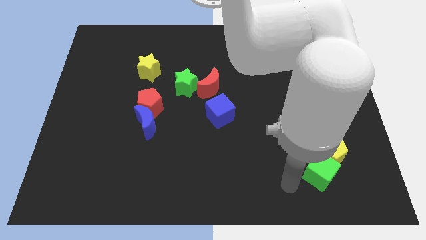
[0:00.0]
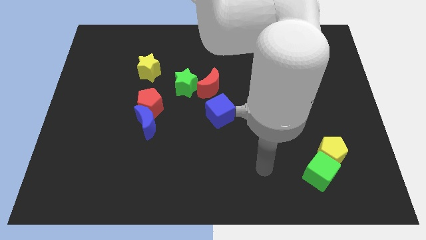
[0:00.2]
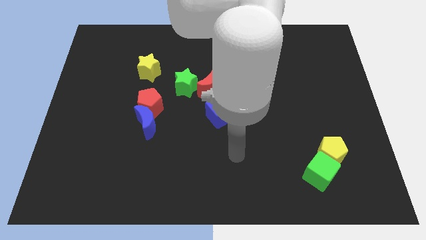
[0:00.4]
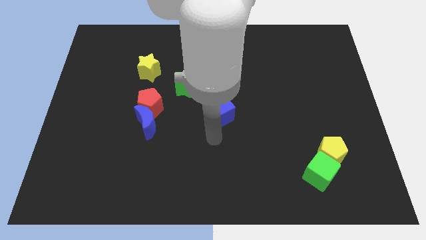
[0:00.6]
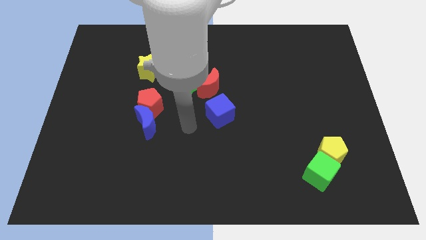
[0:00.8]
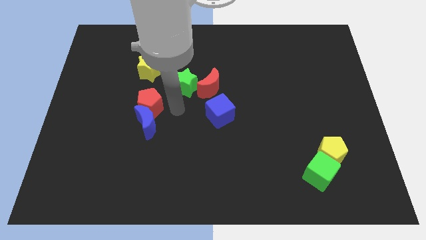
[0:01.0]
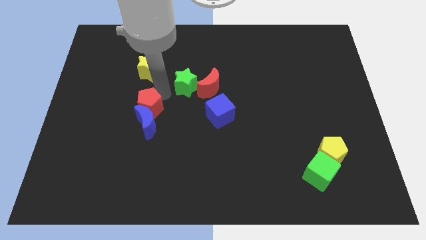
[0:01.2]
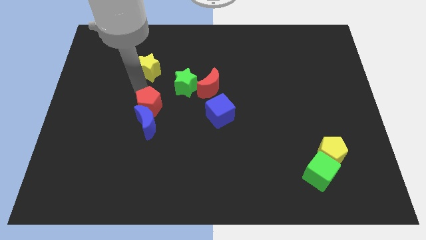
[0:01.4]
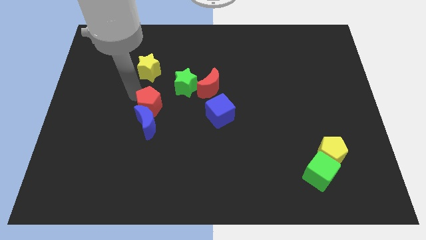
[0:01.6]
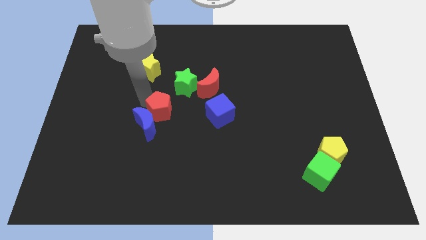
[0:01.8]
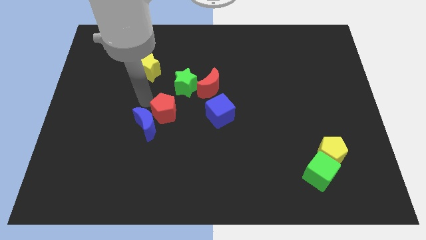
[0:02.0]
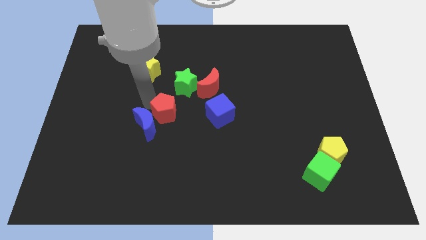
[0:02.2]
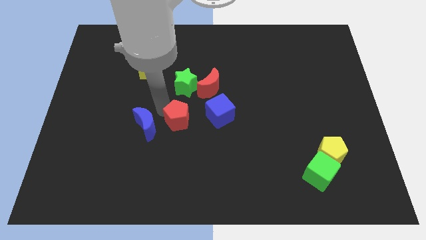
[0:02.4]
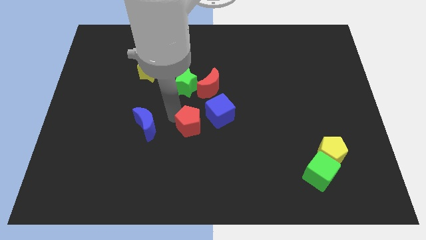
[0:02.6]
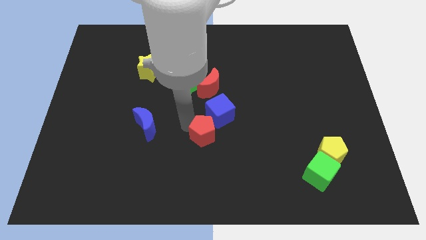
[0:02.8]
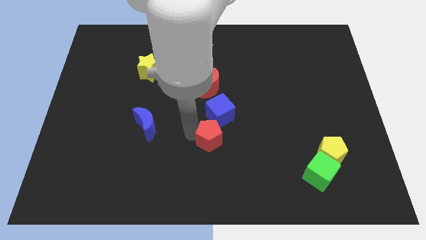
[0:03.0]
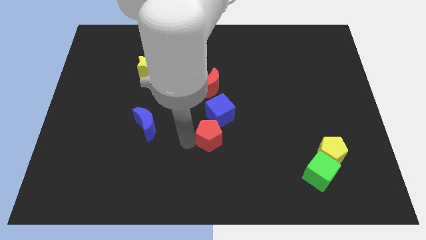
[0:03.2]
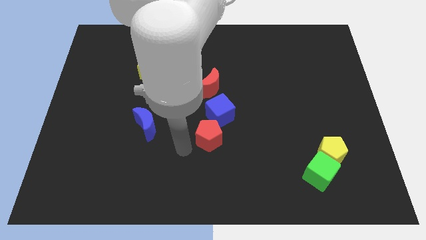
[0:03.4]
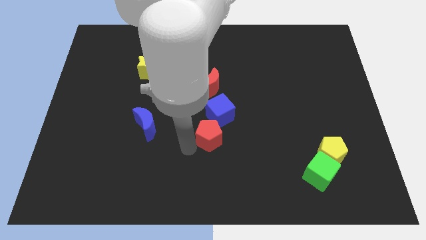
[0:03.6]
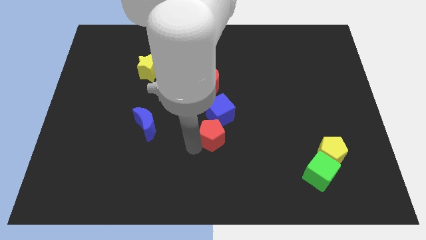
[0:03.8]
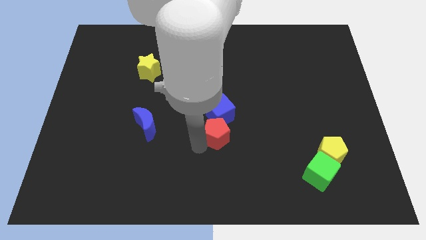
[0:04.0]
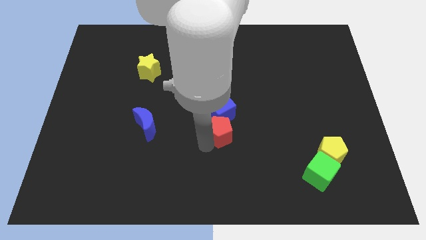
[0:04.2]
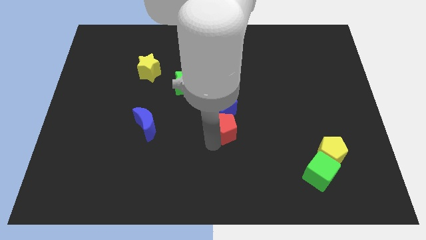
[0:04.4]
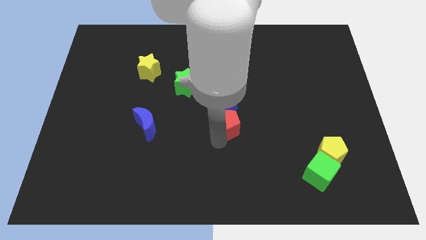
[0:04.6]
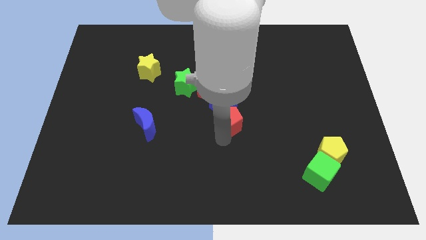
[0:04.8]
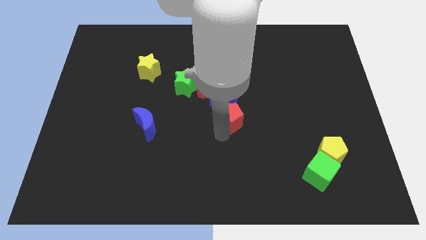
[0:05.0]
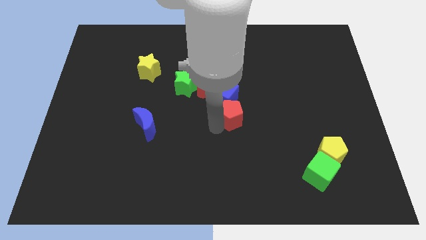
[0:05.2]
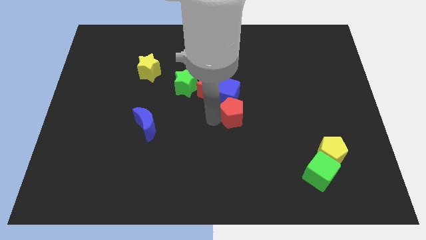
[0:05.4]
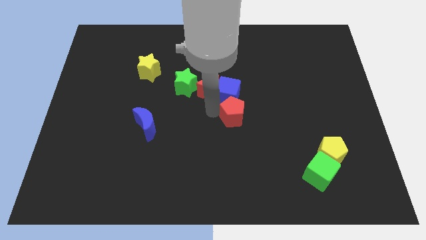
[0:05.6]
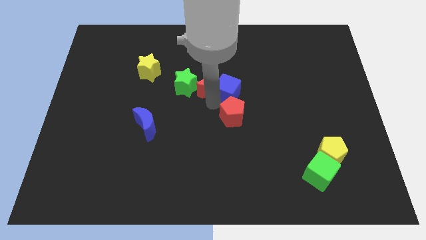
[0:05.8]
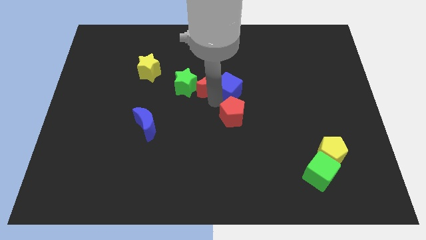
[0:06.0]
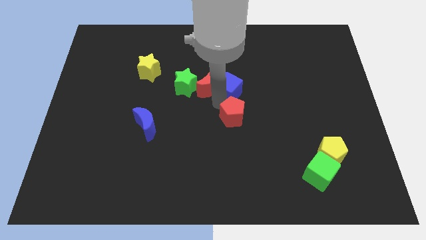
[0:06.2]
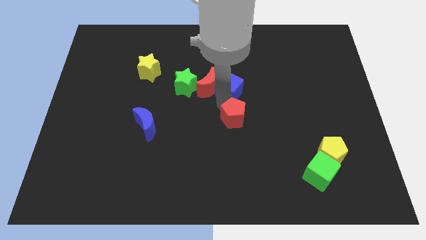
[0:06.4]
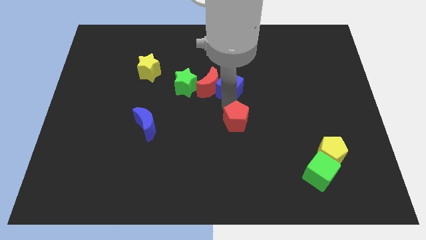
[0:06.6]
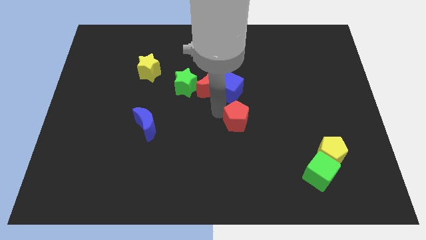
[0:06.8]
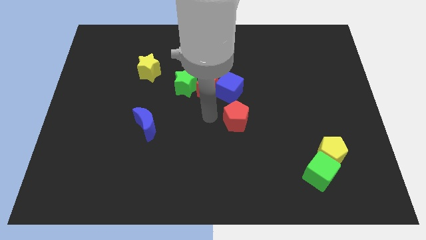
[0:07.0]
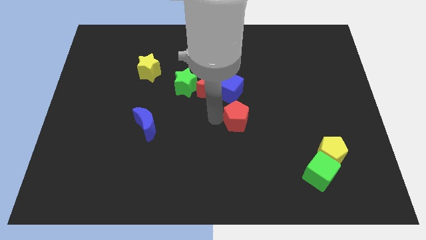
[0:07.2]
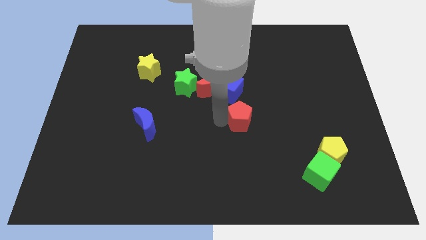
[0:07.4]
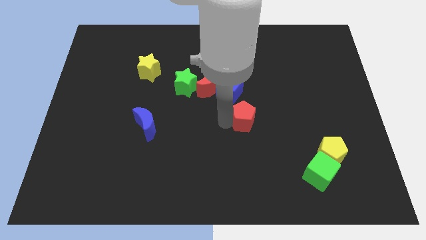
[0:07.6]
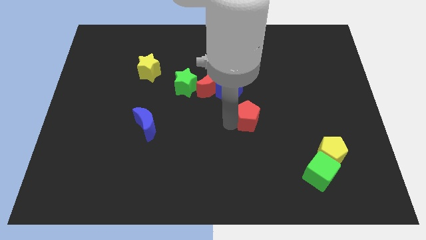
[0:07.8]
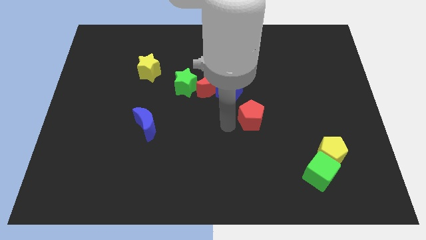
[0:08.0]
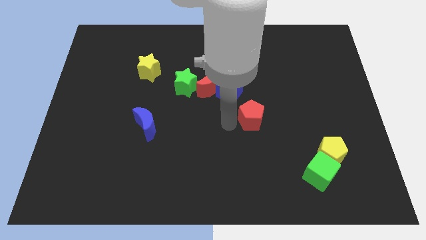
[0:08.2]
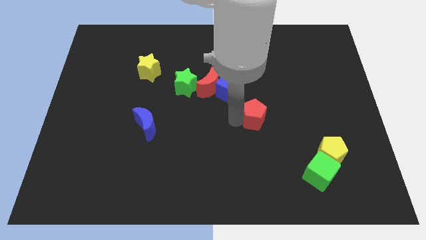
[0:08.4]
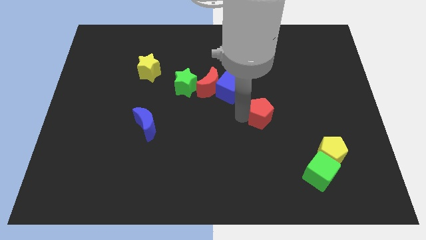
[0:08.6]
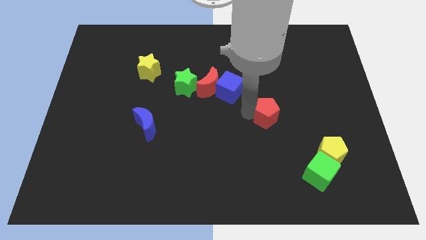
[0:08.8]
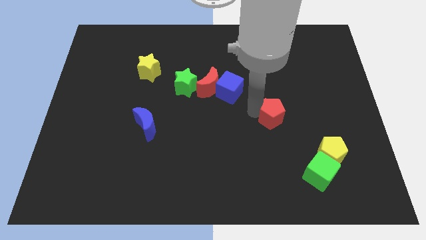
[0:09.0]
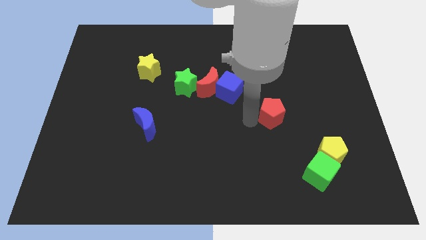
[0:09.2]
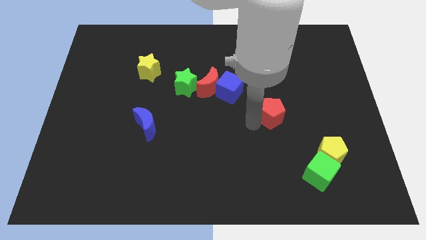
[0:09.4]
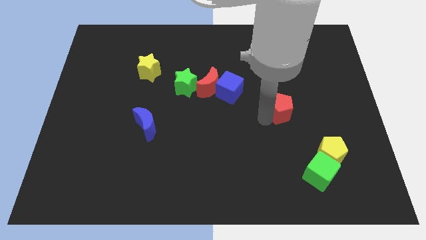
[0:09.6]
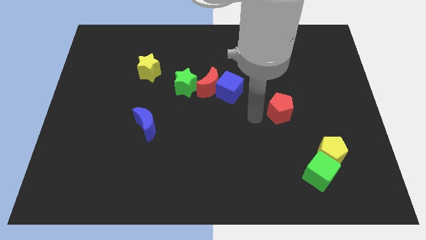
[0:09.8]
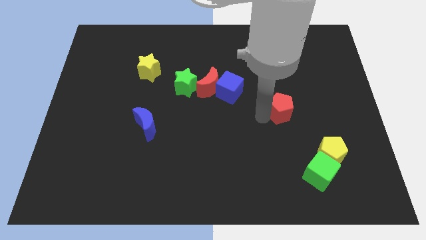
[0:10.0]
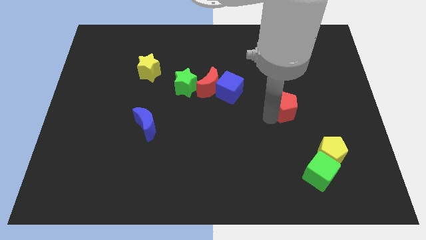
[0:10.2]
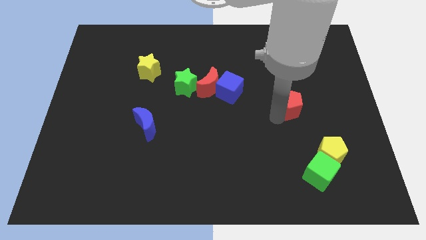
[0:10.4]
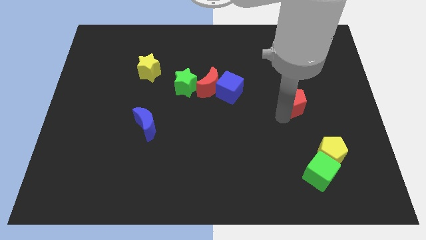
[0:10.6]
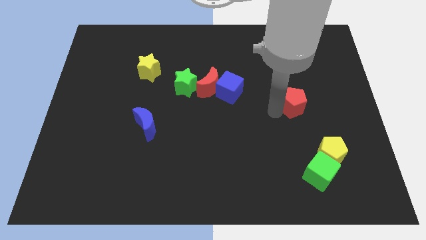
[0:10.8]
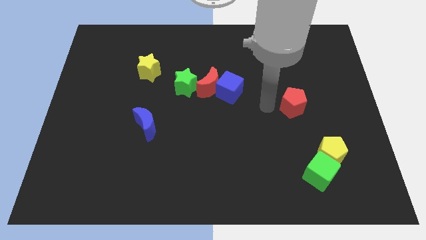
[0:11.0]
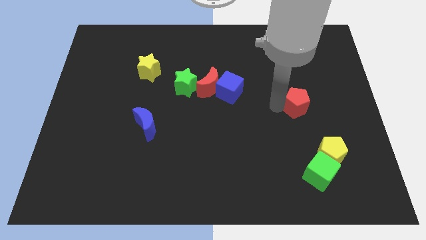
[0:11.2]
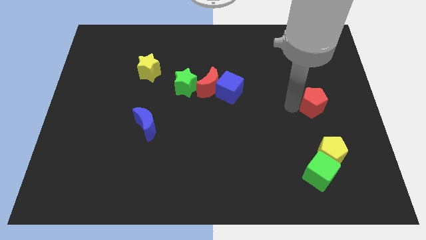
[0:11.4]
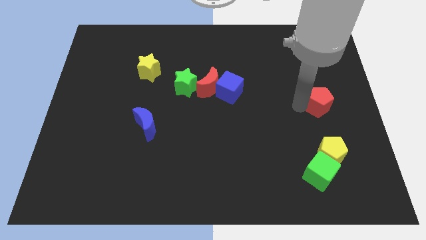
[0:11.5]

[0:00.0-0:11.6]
put the red pentagon to the center right

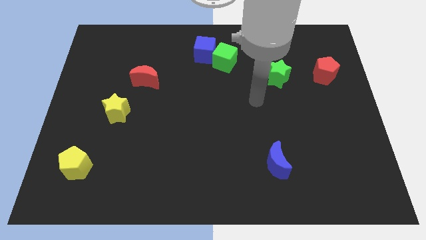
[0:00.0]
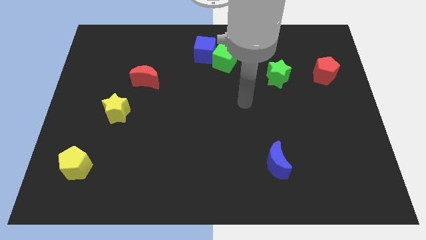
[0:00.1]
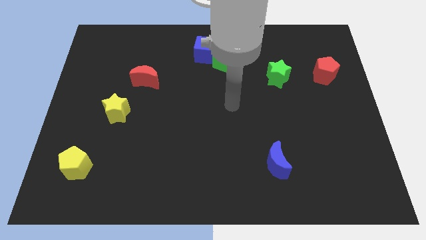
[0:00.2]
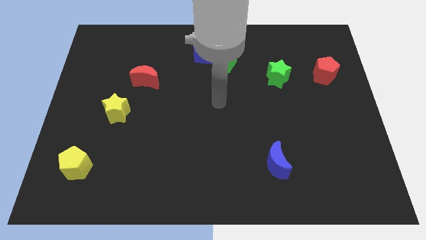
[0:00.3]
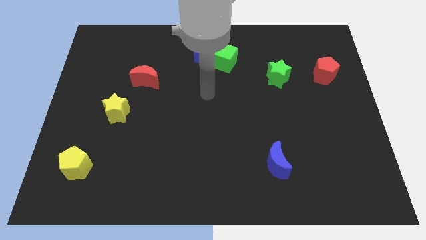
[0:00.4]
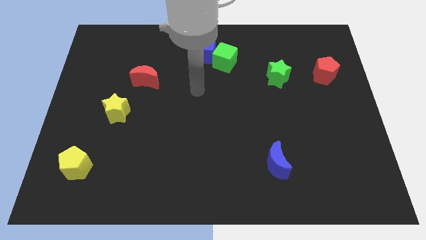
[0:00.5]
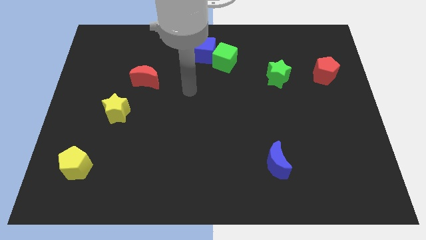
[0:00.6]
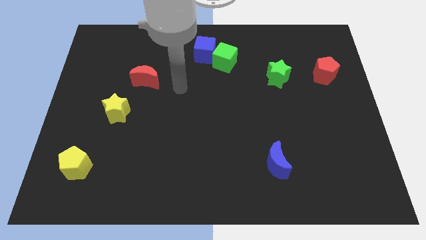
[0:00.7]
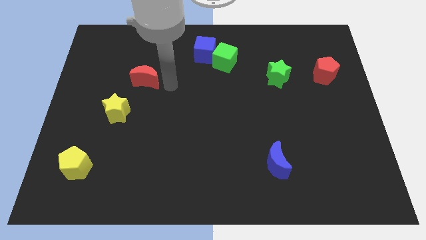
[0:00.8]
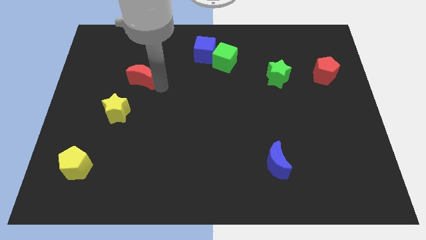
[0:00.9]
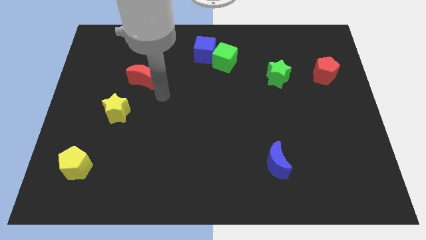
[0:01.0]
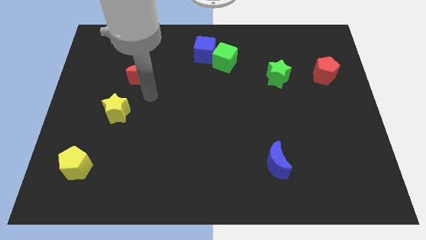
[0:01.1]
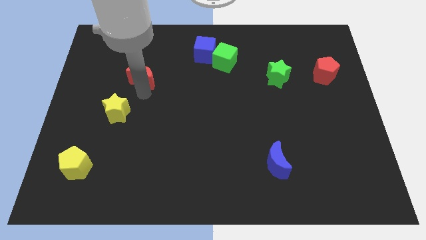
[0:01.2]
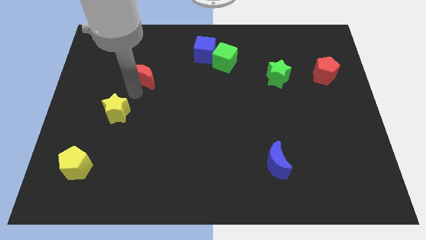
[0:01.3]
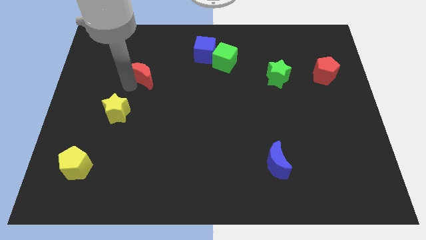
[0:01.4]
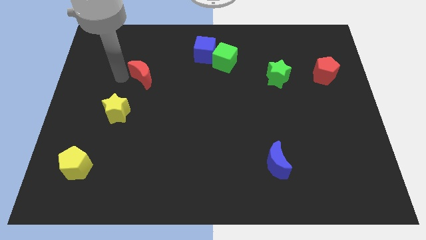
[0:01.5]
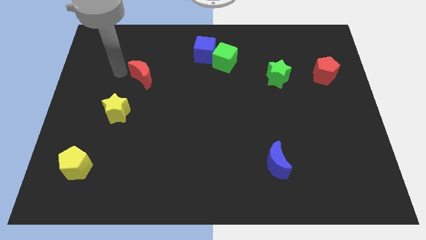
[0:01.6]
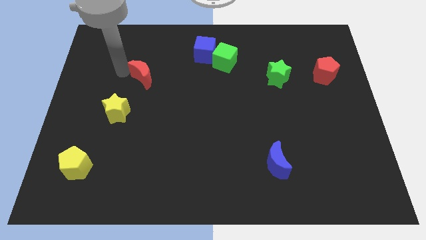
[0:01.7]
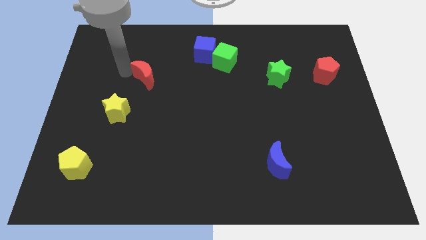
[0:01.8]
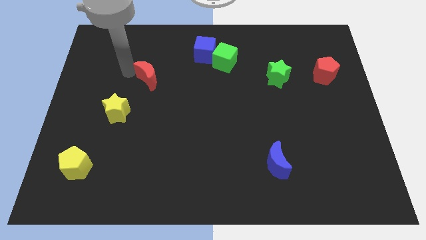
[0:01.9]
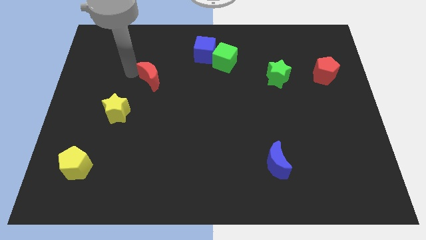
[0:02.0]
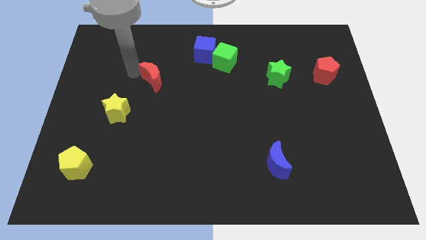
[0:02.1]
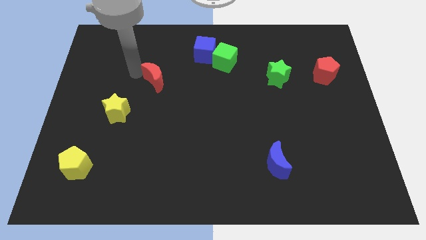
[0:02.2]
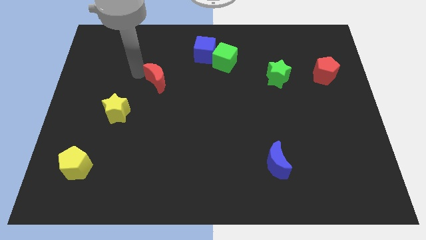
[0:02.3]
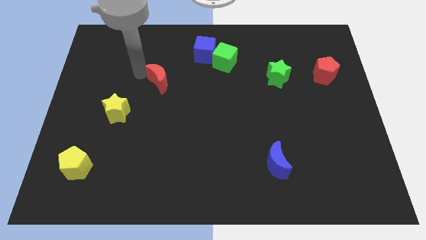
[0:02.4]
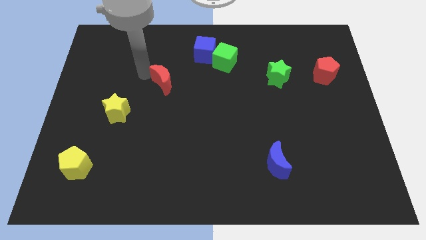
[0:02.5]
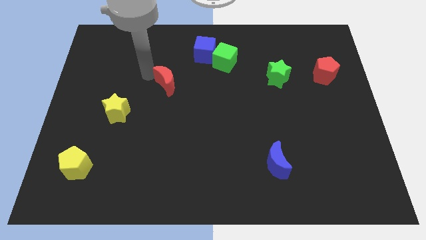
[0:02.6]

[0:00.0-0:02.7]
move the red moon to the center
